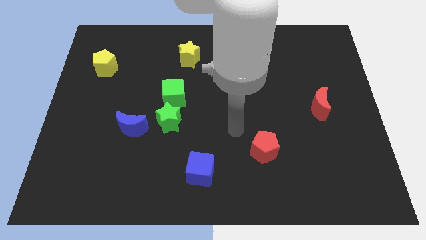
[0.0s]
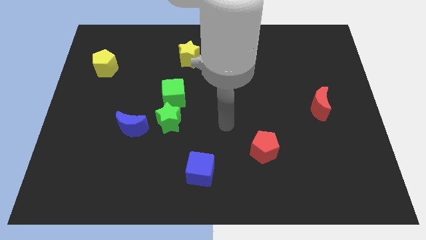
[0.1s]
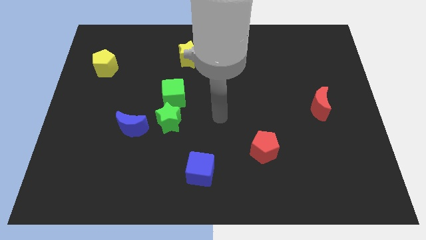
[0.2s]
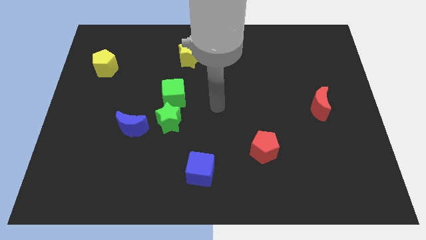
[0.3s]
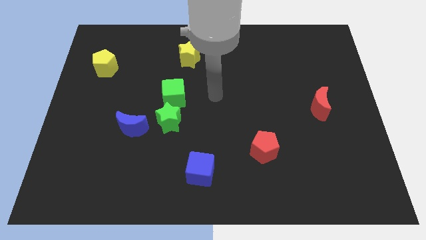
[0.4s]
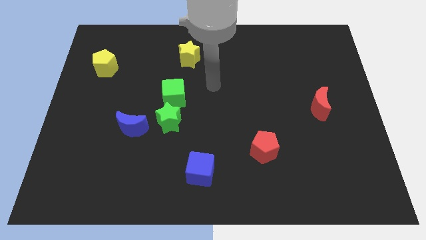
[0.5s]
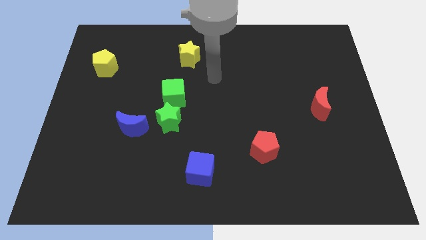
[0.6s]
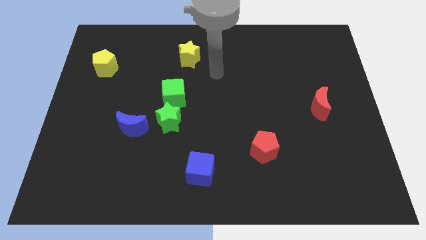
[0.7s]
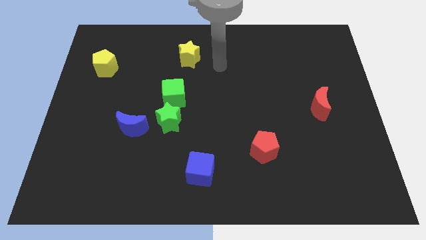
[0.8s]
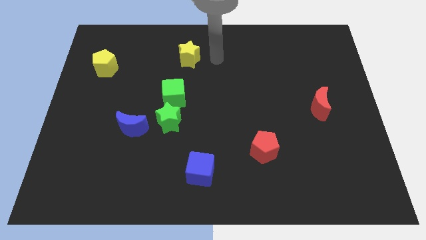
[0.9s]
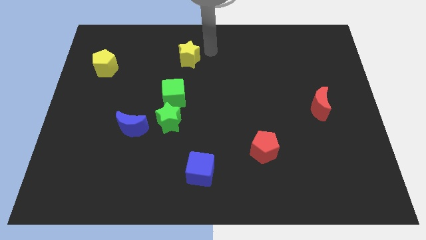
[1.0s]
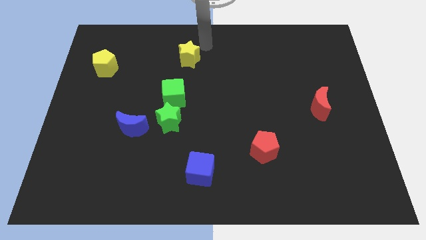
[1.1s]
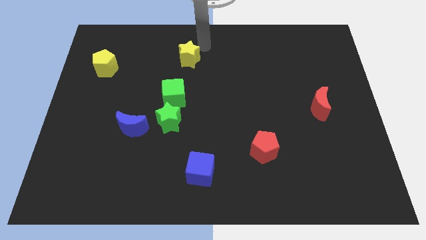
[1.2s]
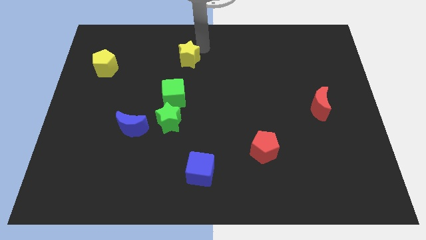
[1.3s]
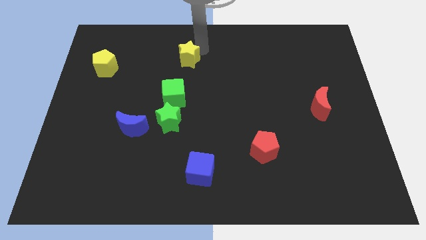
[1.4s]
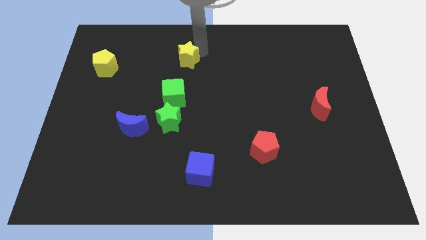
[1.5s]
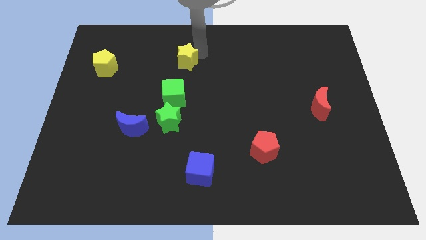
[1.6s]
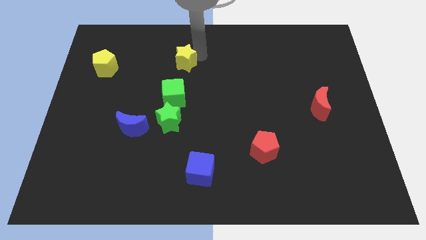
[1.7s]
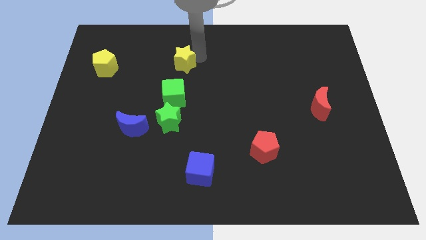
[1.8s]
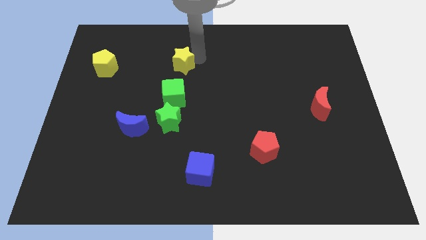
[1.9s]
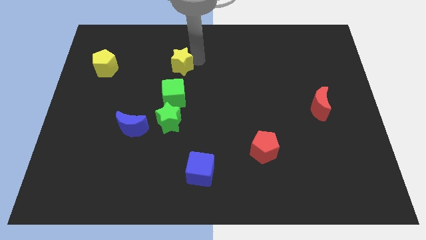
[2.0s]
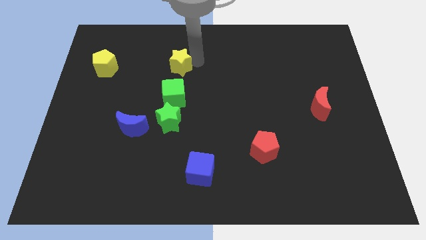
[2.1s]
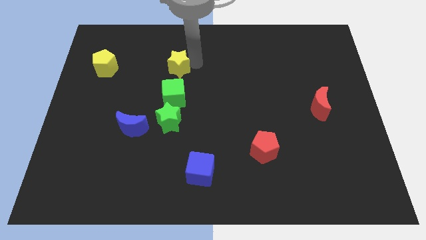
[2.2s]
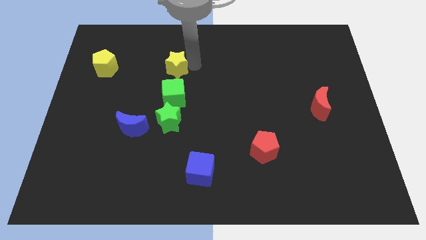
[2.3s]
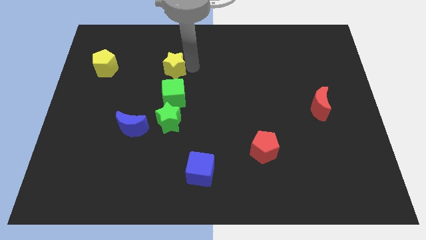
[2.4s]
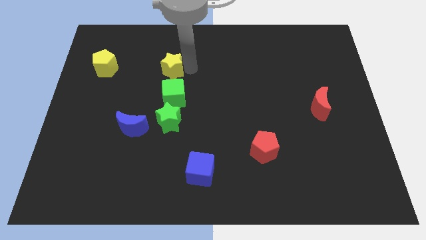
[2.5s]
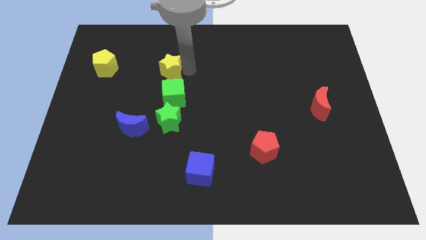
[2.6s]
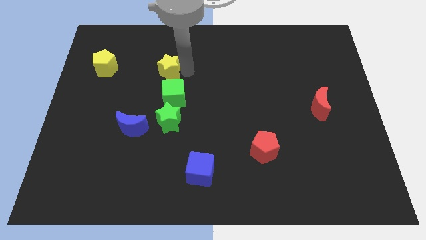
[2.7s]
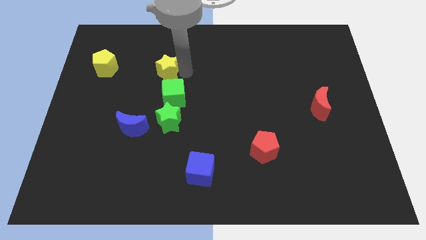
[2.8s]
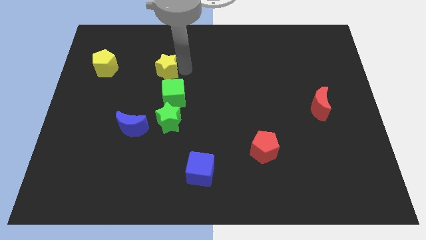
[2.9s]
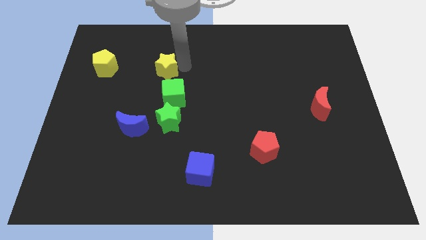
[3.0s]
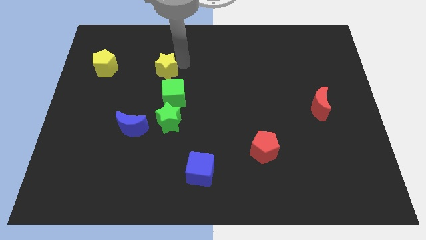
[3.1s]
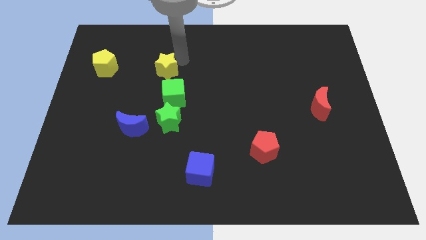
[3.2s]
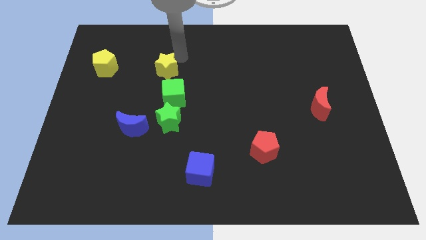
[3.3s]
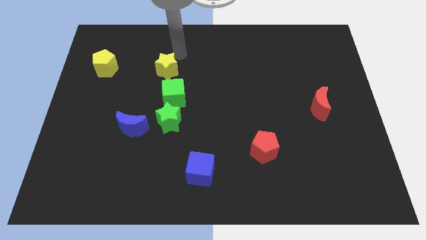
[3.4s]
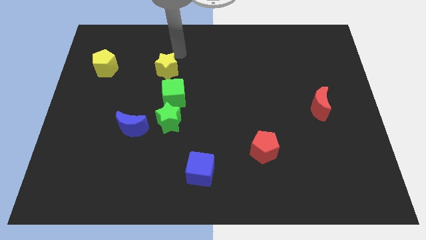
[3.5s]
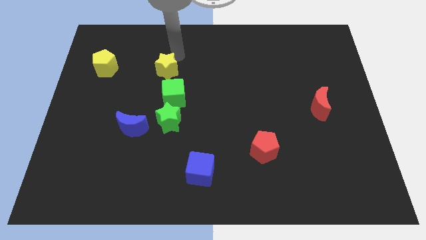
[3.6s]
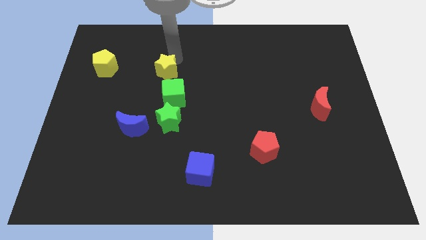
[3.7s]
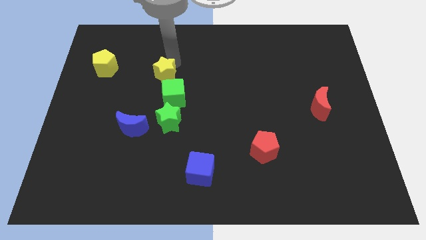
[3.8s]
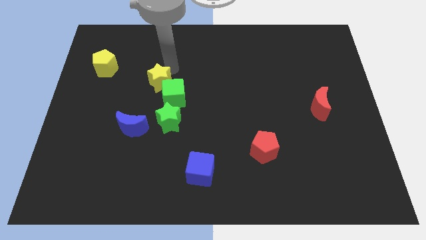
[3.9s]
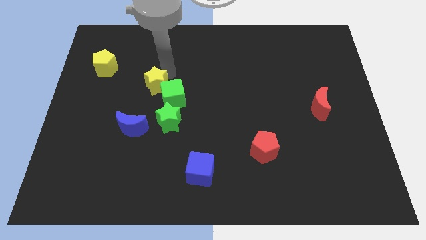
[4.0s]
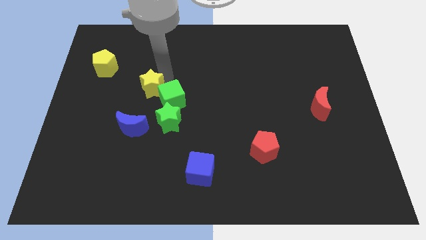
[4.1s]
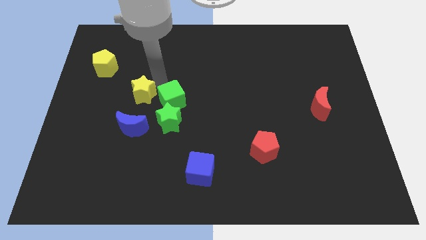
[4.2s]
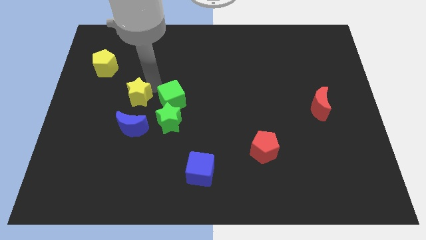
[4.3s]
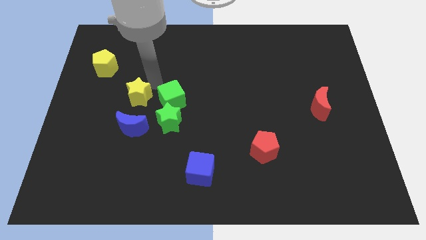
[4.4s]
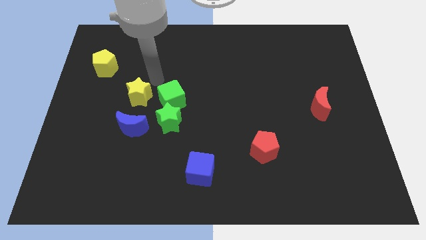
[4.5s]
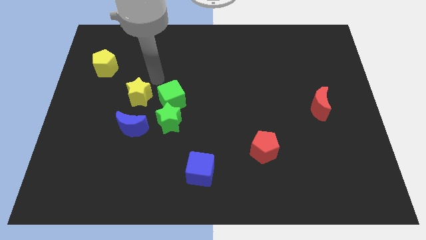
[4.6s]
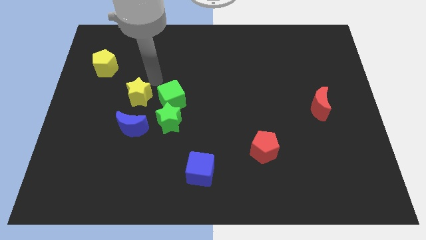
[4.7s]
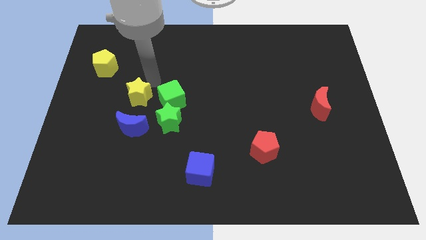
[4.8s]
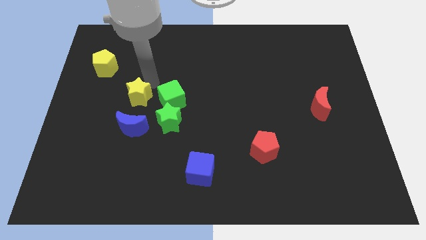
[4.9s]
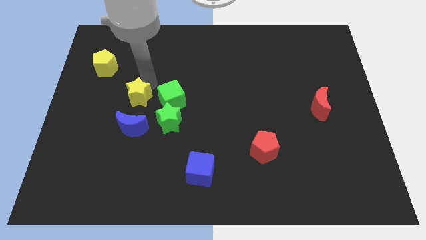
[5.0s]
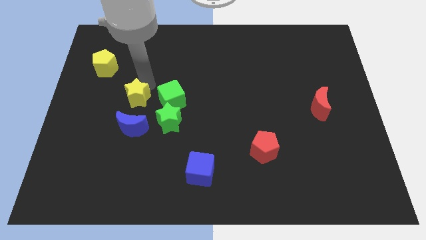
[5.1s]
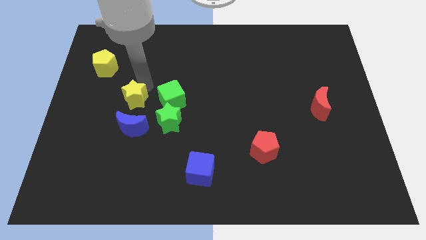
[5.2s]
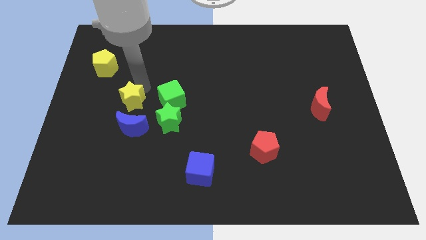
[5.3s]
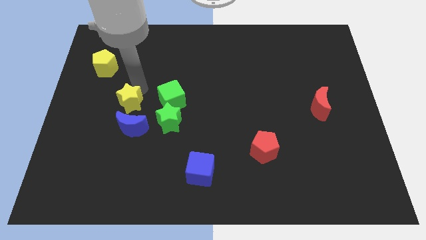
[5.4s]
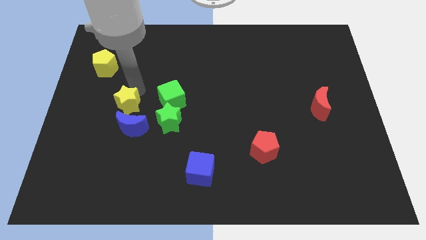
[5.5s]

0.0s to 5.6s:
push the yellow star to the left of the green star

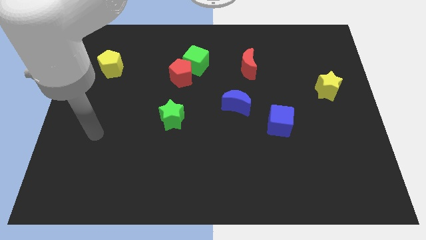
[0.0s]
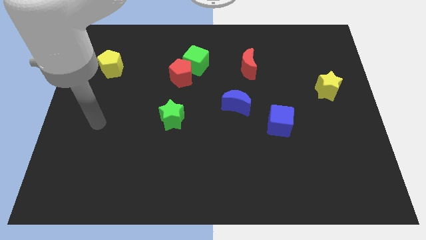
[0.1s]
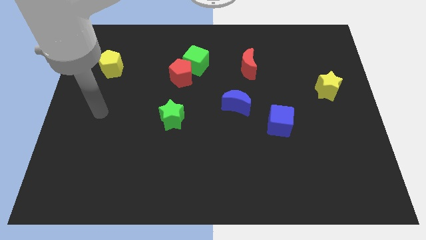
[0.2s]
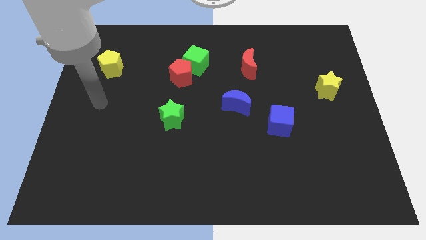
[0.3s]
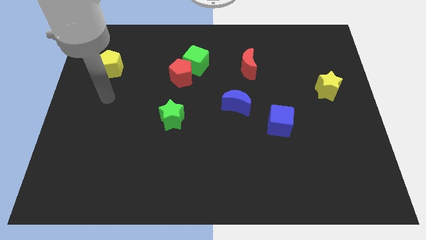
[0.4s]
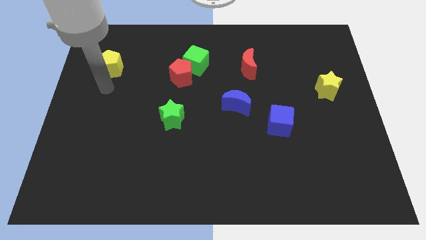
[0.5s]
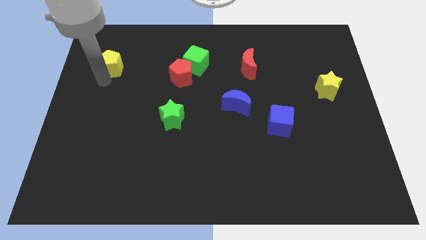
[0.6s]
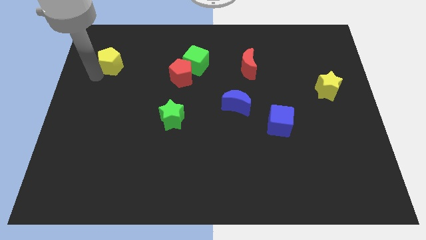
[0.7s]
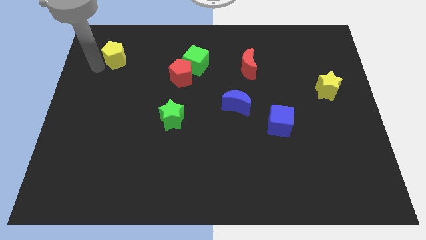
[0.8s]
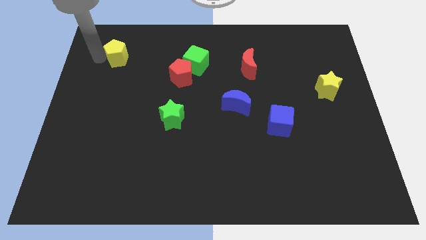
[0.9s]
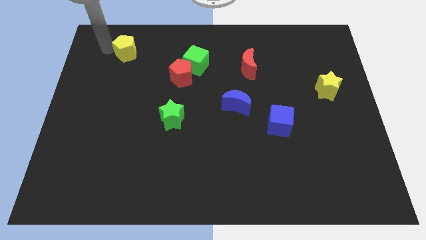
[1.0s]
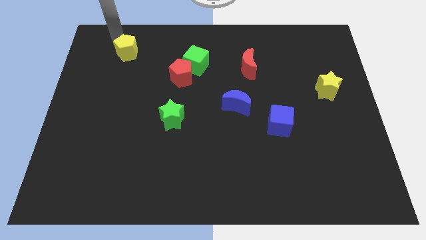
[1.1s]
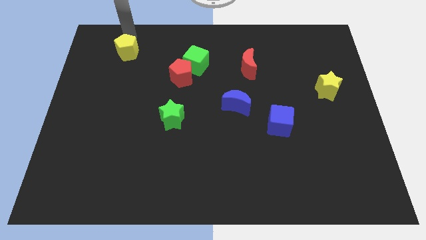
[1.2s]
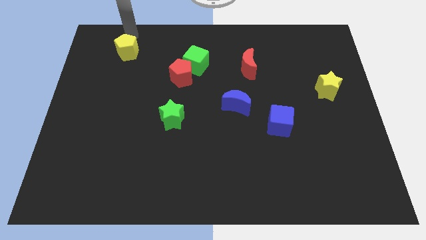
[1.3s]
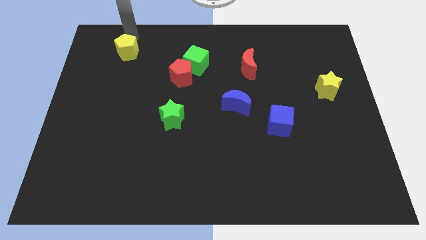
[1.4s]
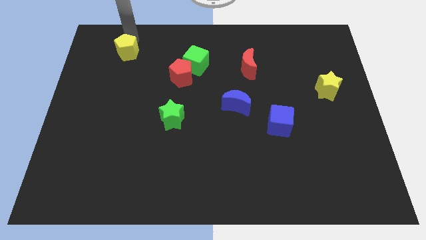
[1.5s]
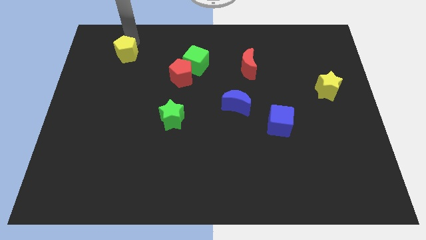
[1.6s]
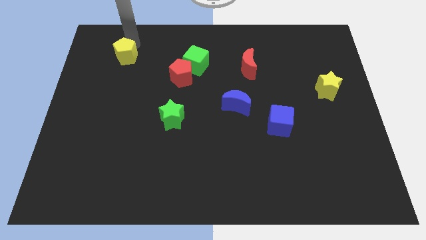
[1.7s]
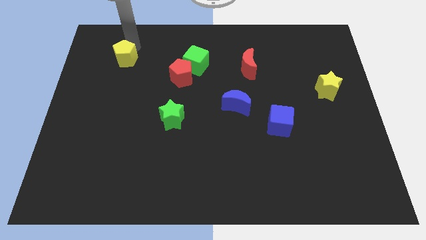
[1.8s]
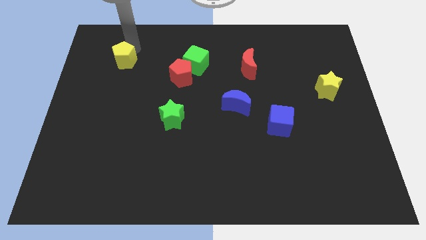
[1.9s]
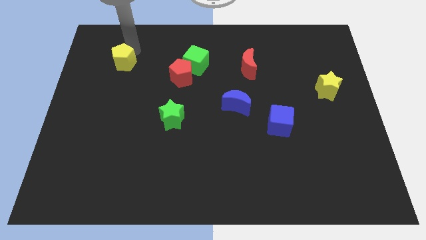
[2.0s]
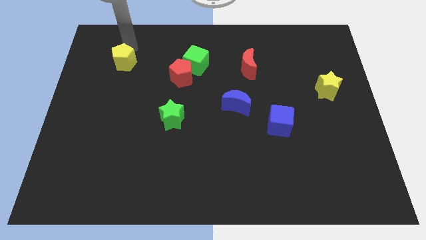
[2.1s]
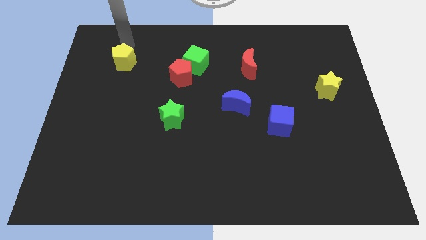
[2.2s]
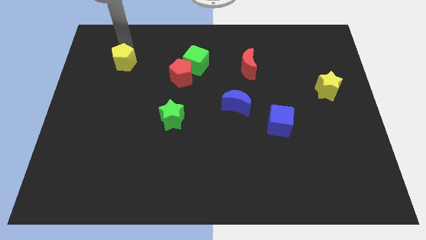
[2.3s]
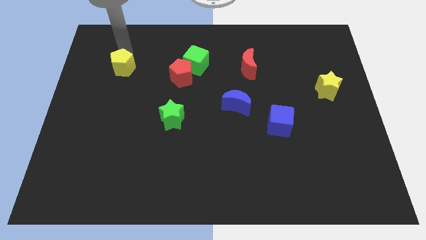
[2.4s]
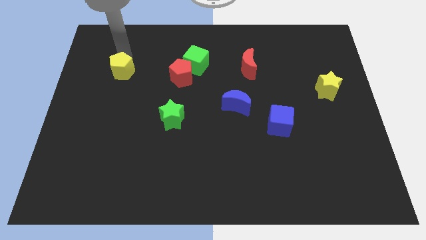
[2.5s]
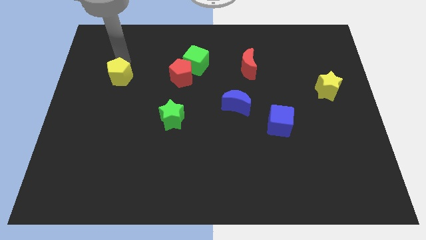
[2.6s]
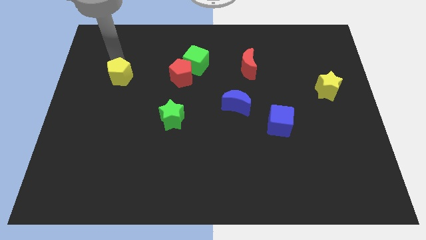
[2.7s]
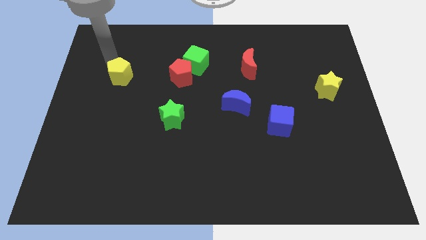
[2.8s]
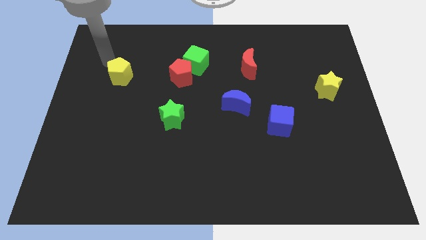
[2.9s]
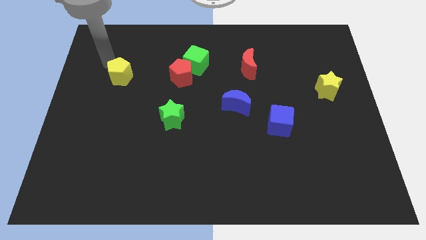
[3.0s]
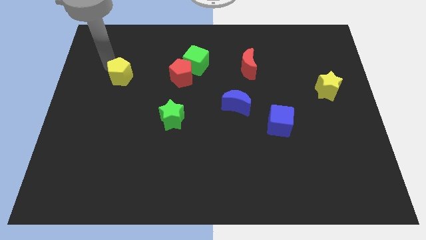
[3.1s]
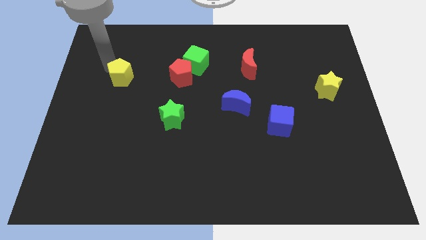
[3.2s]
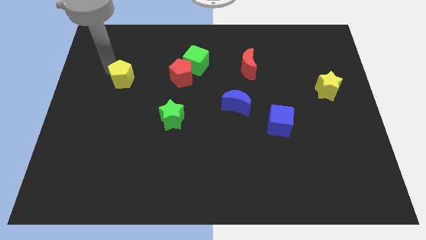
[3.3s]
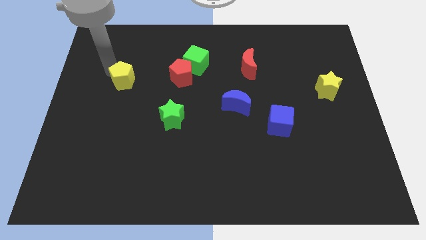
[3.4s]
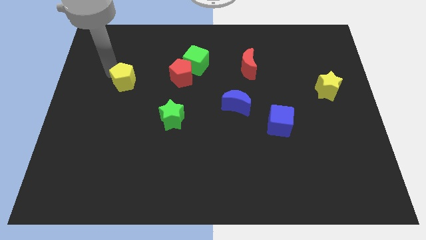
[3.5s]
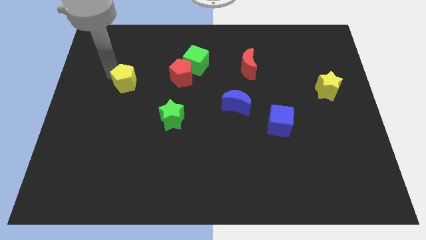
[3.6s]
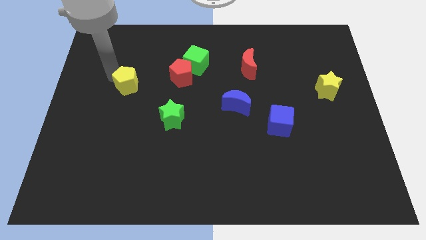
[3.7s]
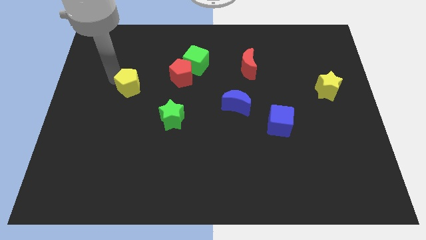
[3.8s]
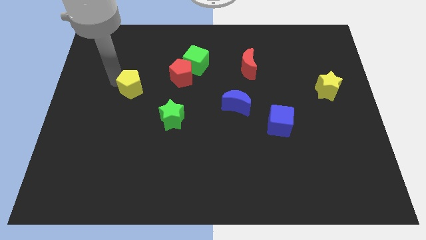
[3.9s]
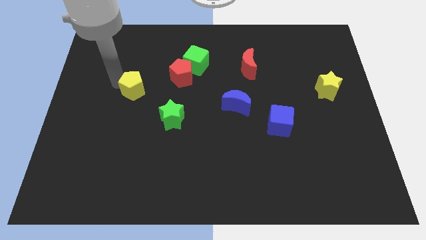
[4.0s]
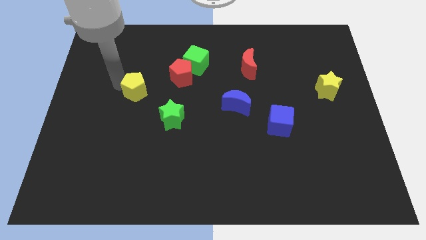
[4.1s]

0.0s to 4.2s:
move the yellow pentagon to the top left side of the green star
